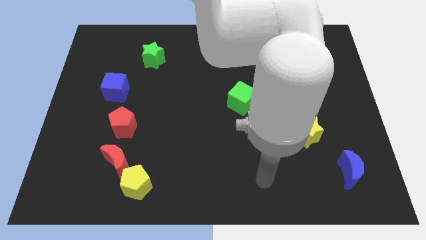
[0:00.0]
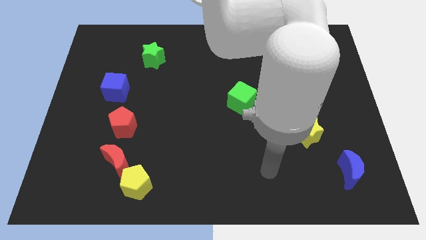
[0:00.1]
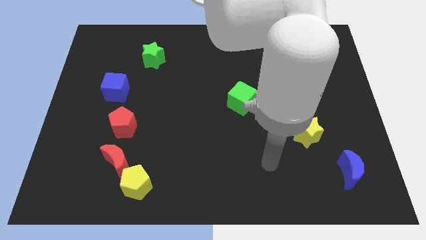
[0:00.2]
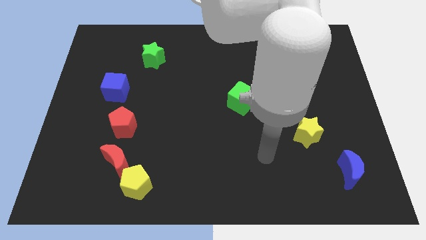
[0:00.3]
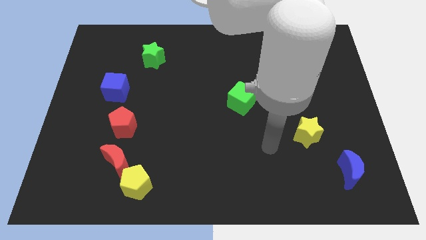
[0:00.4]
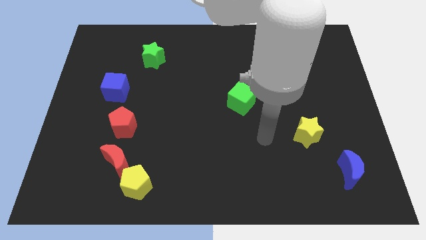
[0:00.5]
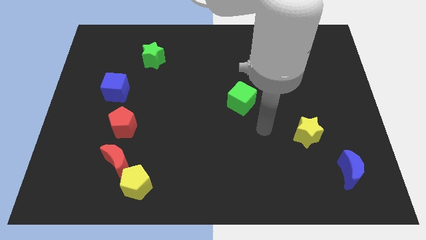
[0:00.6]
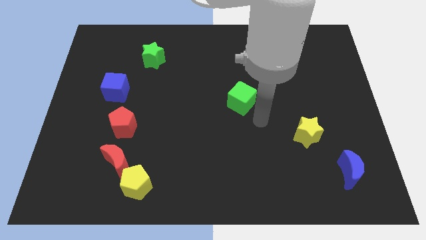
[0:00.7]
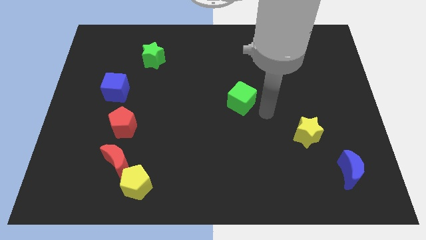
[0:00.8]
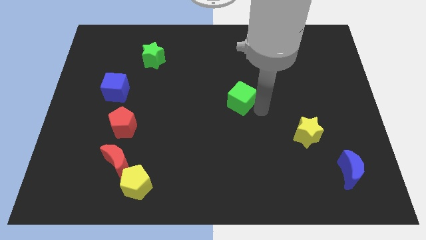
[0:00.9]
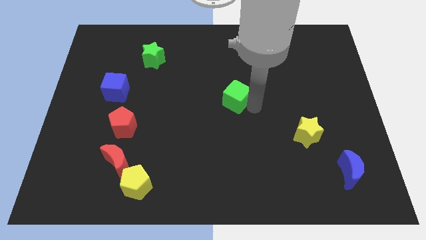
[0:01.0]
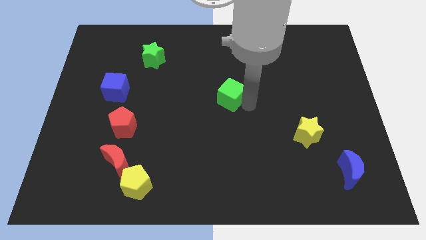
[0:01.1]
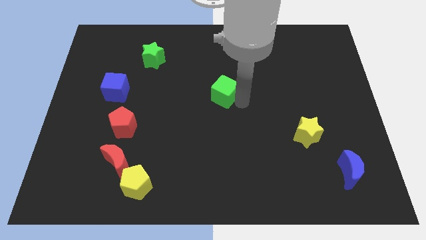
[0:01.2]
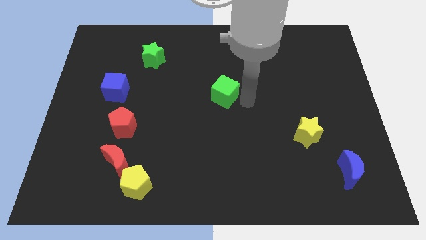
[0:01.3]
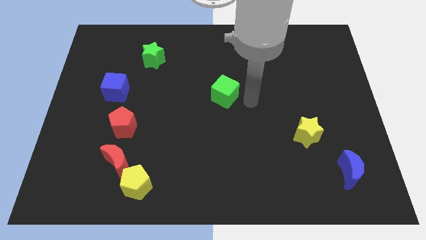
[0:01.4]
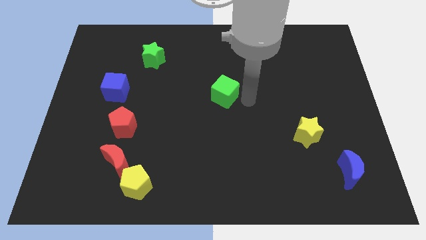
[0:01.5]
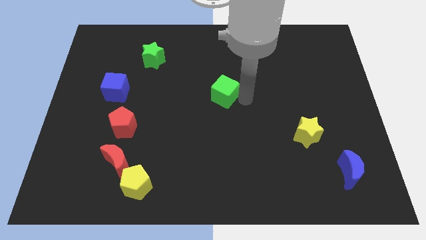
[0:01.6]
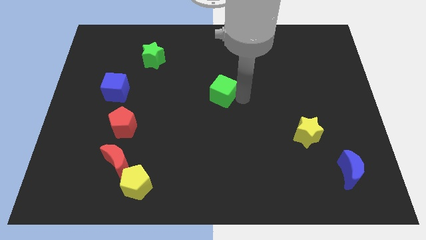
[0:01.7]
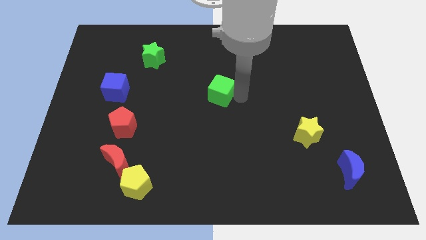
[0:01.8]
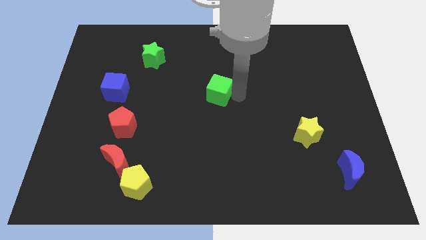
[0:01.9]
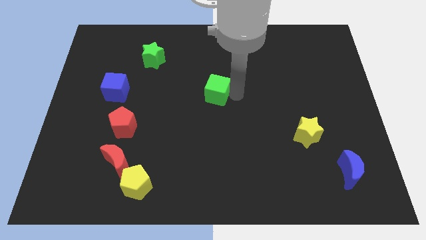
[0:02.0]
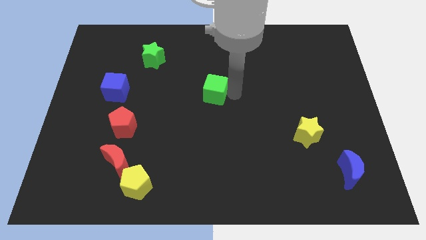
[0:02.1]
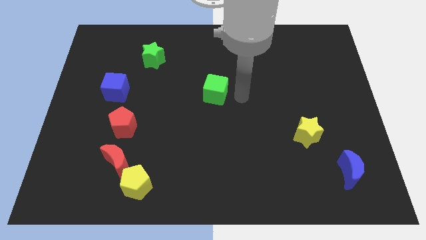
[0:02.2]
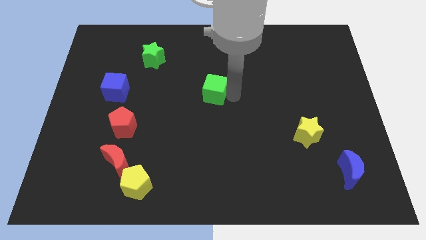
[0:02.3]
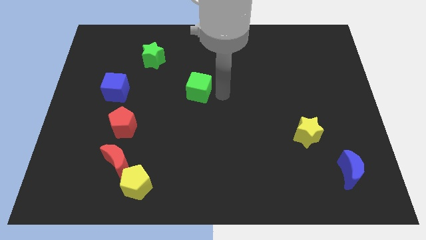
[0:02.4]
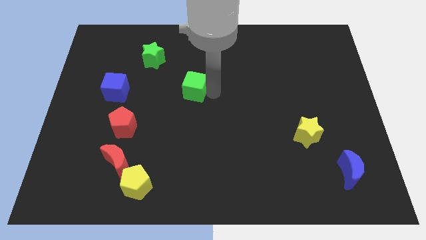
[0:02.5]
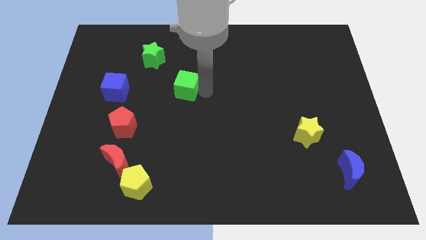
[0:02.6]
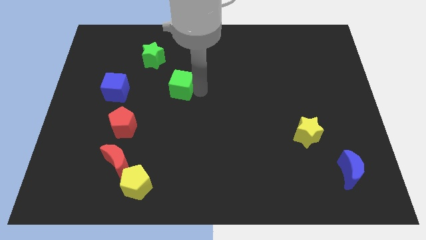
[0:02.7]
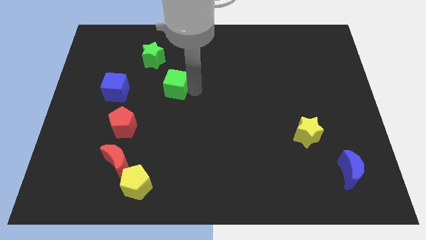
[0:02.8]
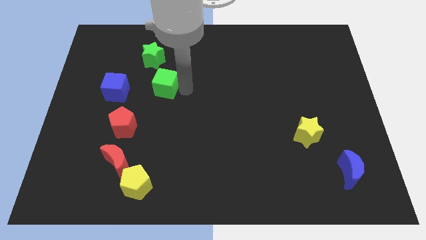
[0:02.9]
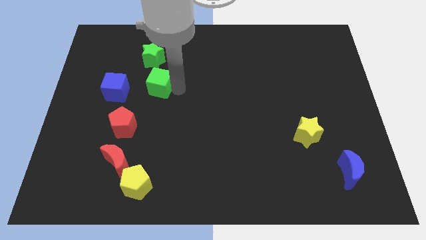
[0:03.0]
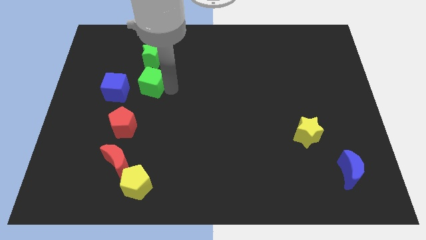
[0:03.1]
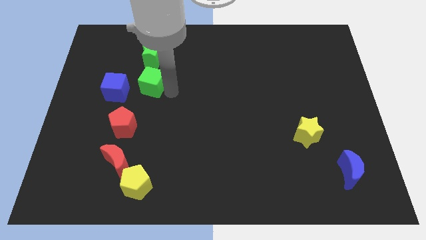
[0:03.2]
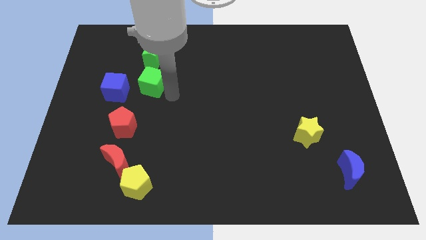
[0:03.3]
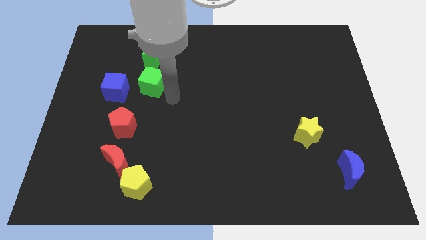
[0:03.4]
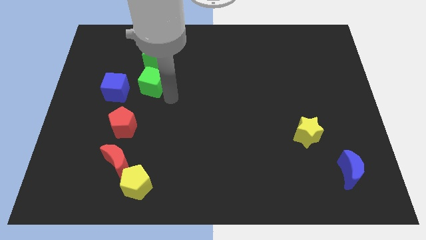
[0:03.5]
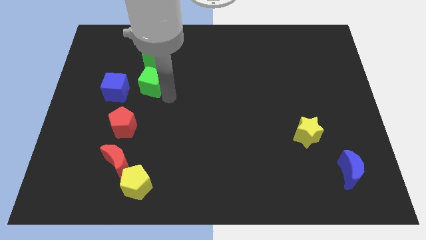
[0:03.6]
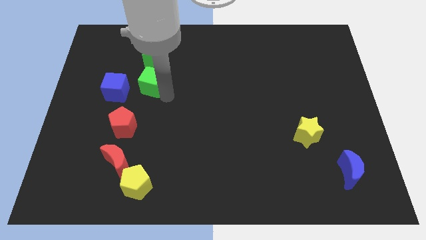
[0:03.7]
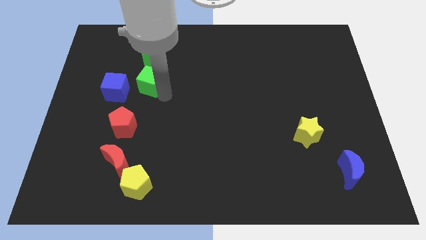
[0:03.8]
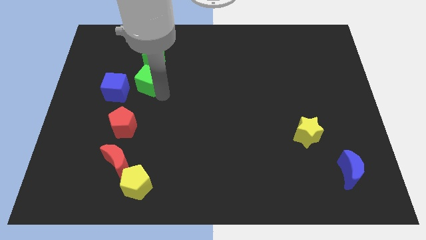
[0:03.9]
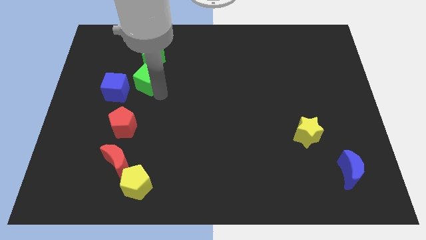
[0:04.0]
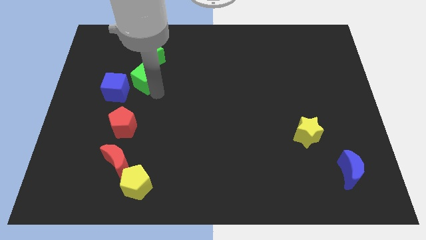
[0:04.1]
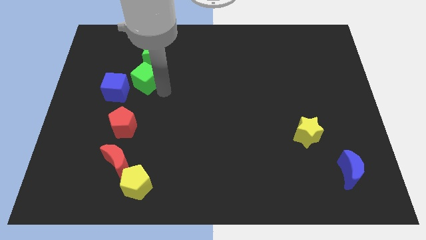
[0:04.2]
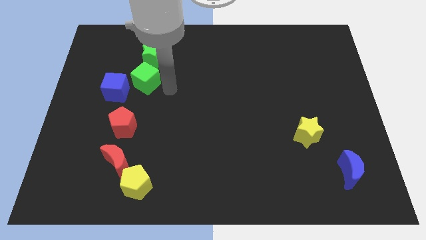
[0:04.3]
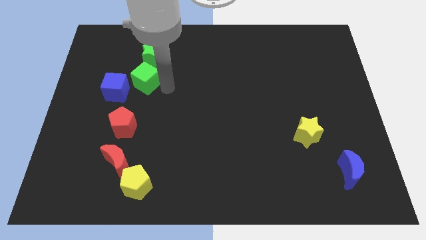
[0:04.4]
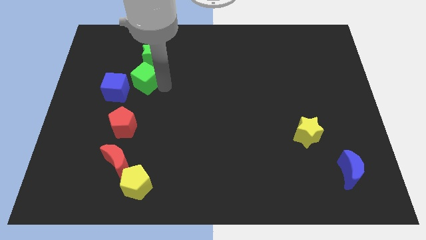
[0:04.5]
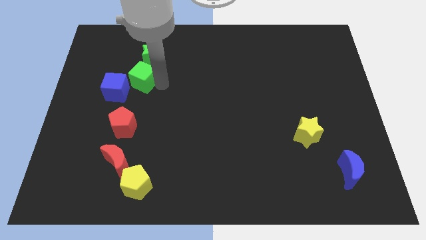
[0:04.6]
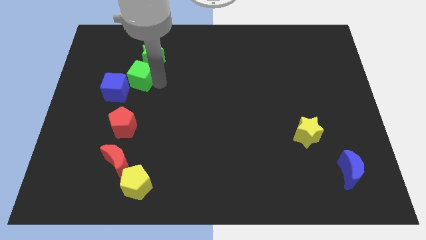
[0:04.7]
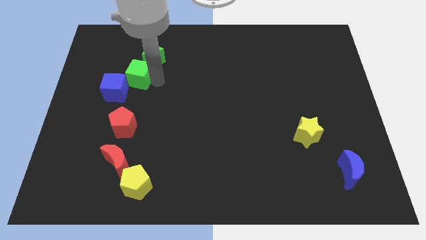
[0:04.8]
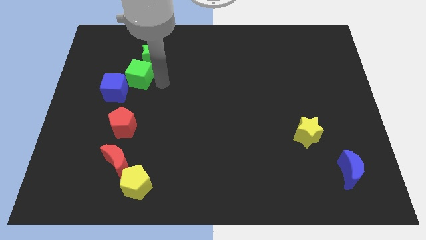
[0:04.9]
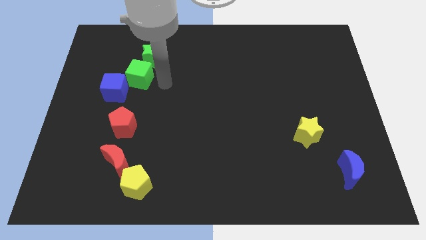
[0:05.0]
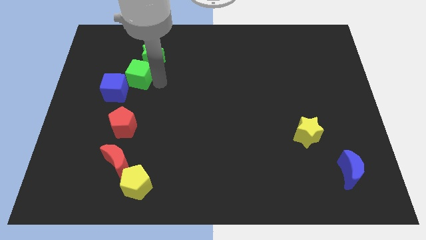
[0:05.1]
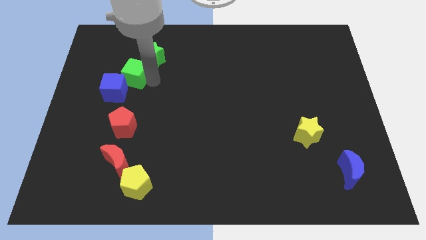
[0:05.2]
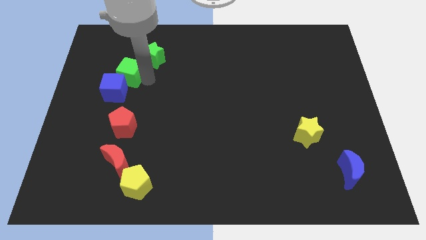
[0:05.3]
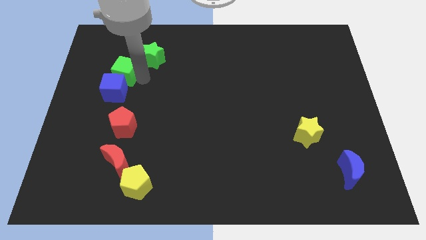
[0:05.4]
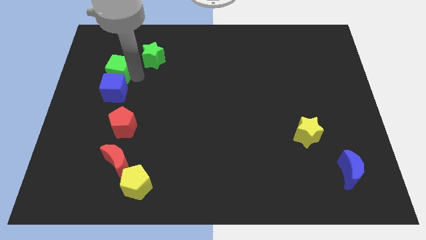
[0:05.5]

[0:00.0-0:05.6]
slide the green cube diagonally up and to the left of the blue cube
